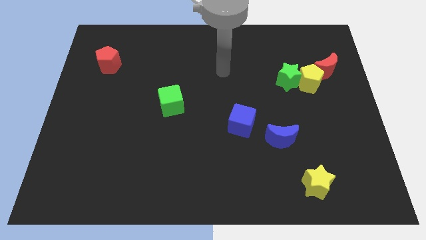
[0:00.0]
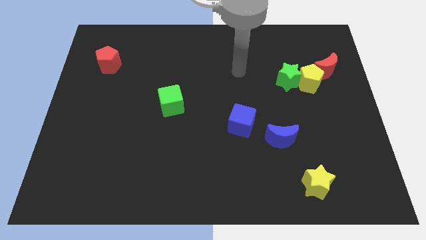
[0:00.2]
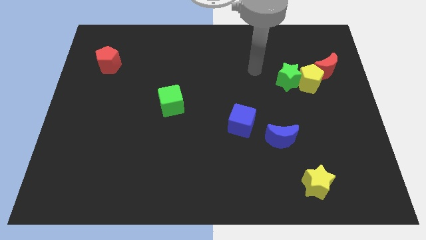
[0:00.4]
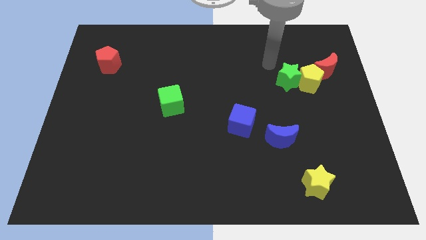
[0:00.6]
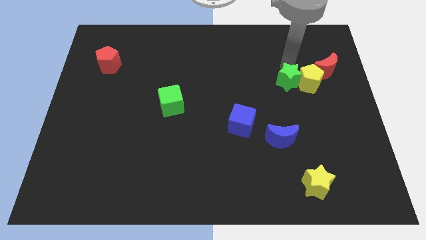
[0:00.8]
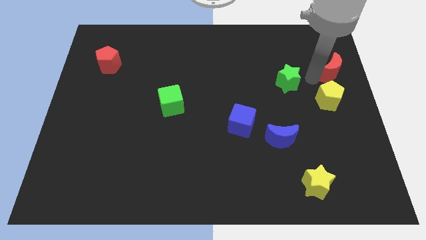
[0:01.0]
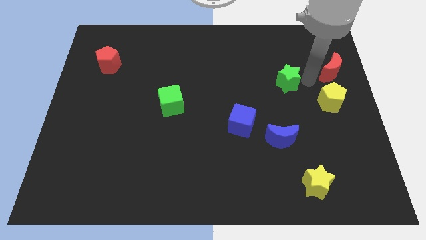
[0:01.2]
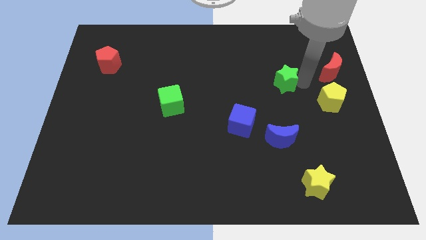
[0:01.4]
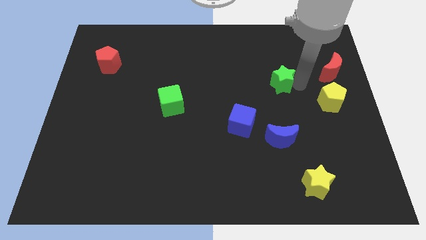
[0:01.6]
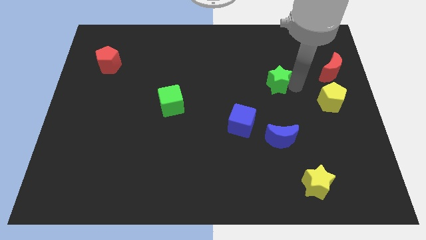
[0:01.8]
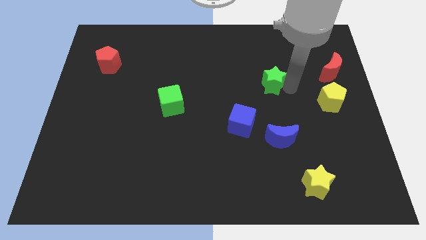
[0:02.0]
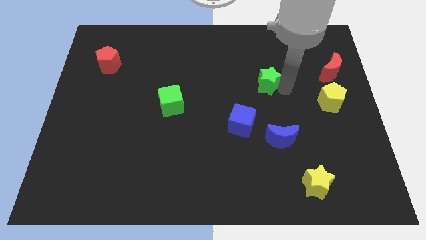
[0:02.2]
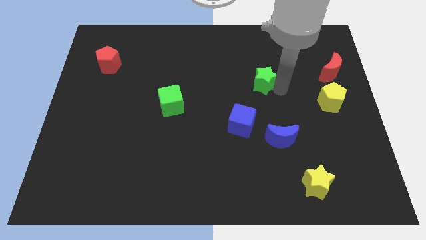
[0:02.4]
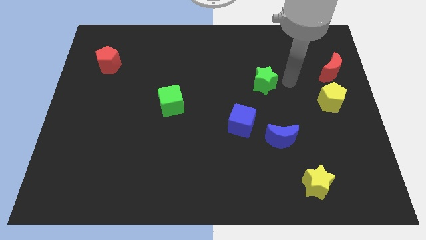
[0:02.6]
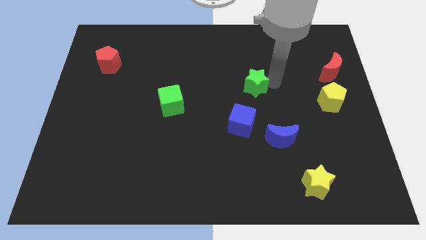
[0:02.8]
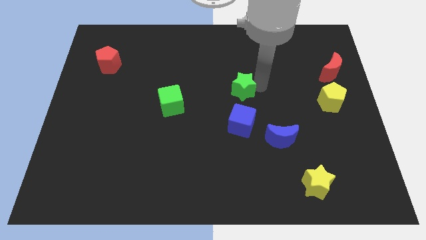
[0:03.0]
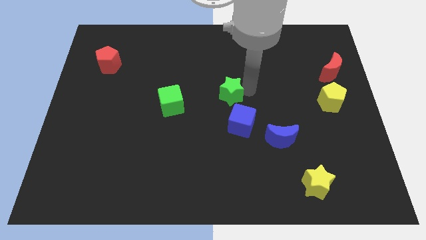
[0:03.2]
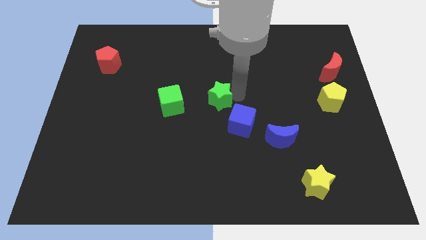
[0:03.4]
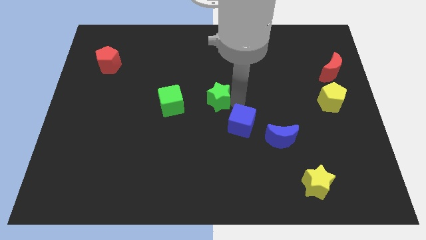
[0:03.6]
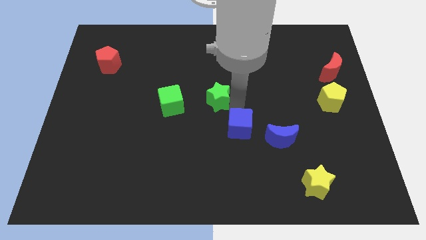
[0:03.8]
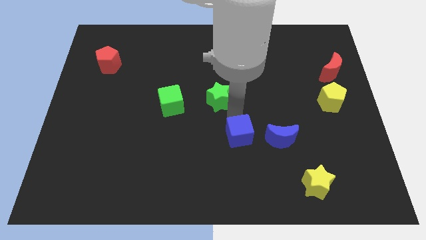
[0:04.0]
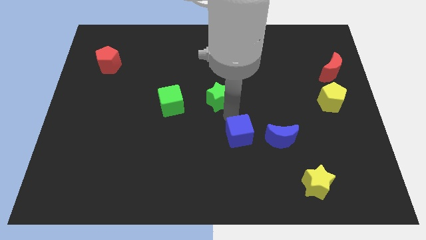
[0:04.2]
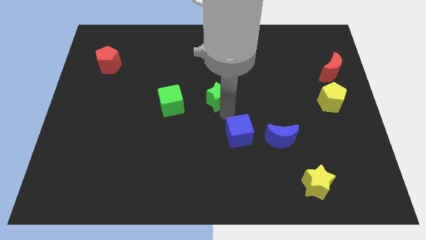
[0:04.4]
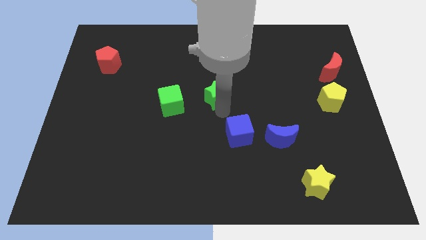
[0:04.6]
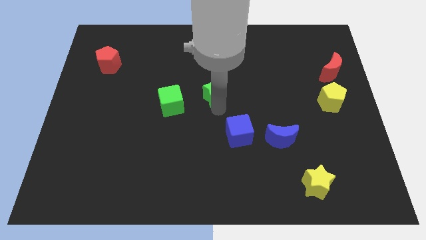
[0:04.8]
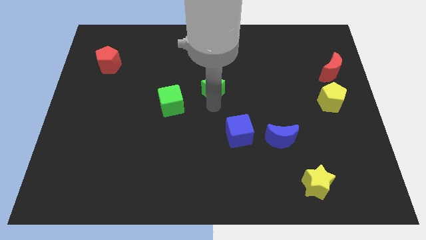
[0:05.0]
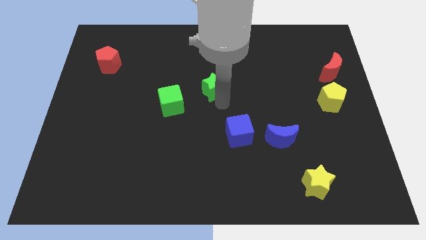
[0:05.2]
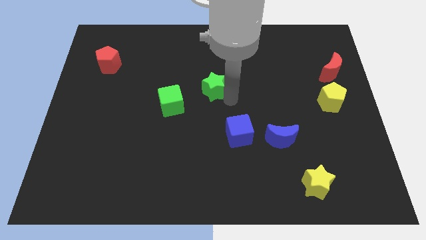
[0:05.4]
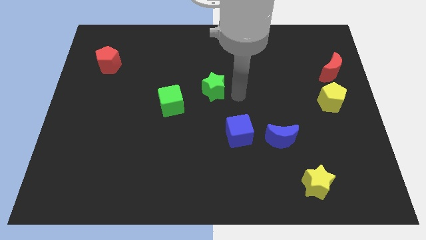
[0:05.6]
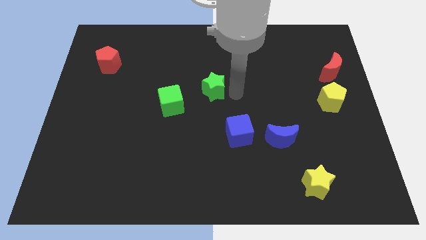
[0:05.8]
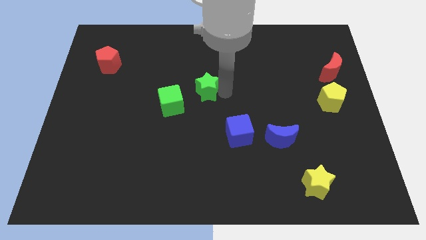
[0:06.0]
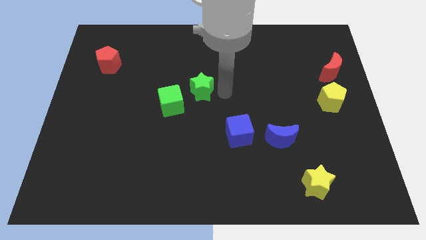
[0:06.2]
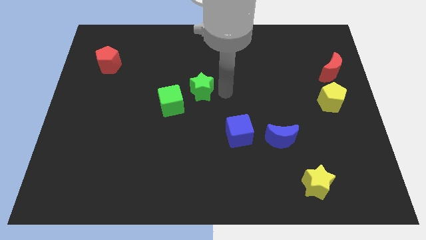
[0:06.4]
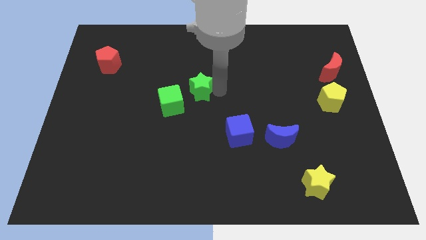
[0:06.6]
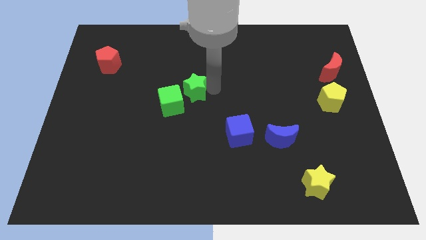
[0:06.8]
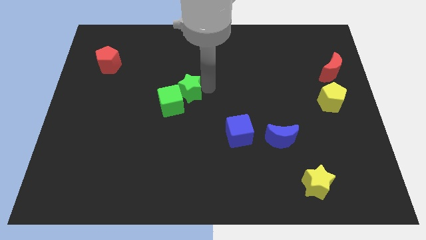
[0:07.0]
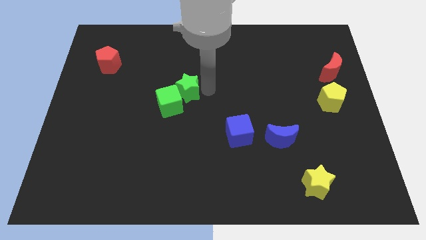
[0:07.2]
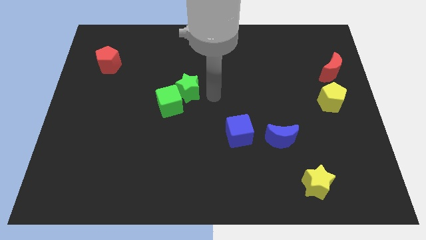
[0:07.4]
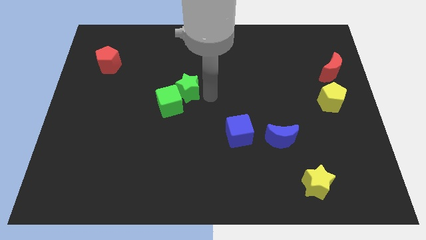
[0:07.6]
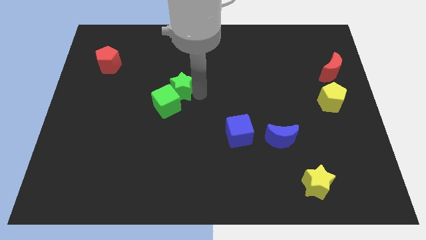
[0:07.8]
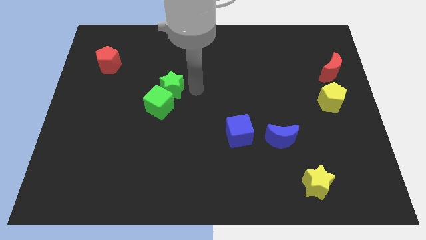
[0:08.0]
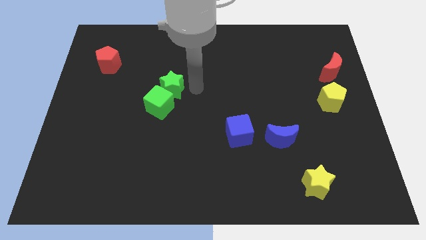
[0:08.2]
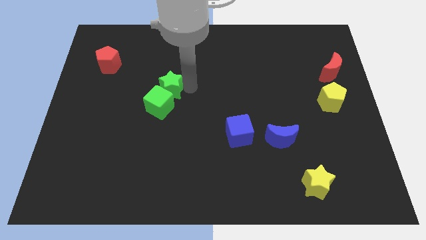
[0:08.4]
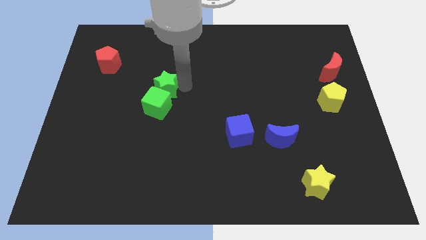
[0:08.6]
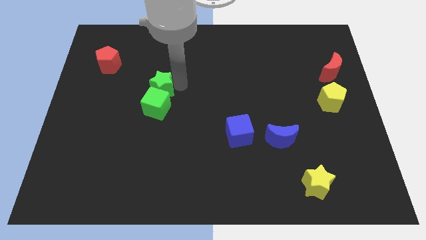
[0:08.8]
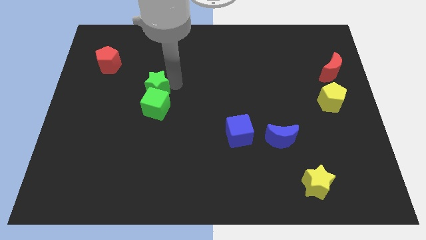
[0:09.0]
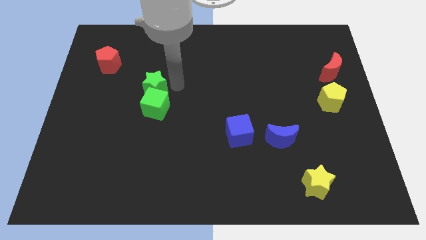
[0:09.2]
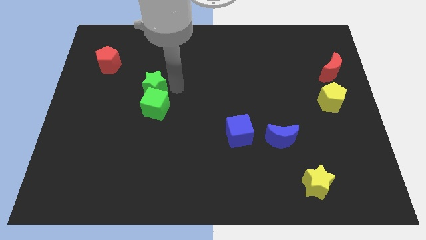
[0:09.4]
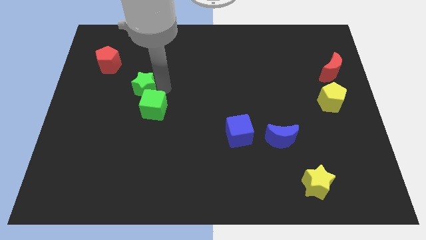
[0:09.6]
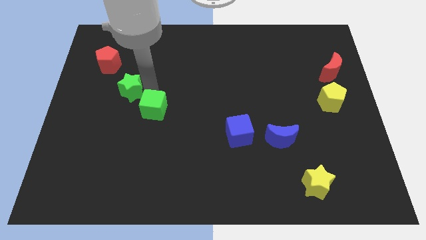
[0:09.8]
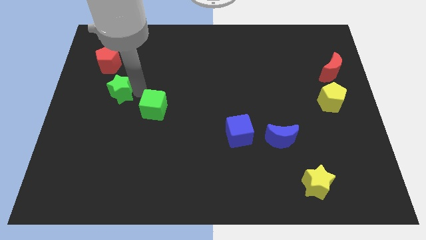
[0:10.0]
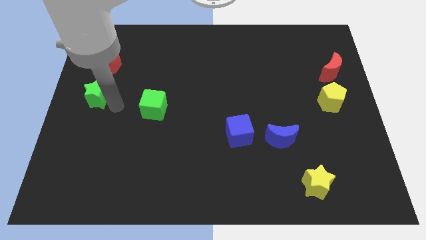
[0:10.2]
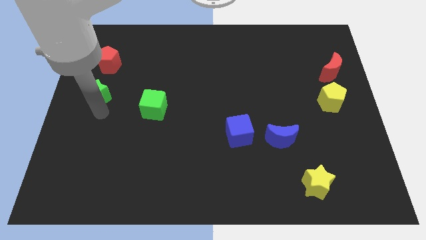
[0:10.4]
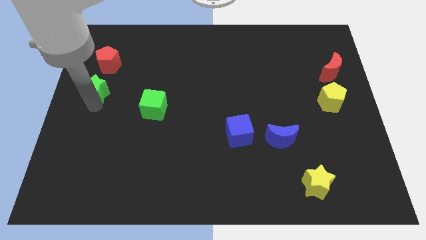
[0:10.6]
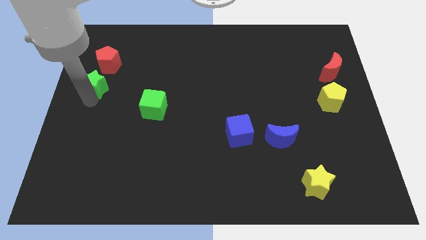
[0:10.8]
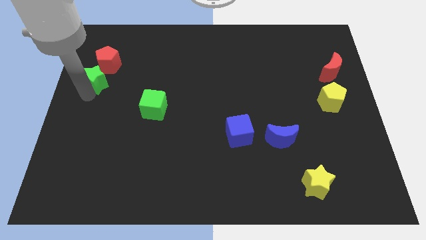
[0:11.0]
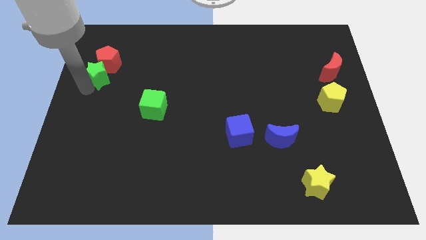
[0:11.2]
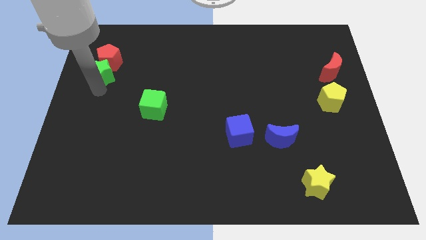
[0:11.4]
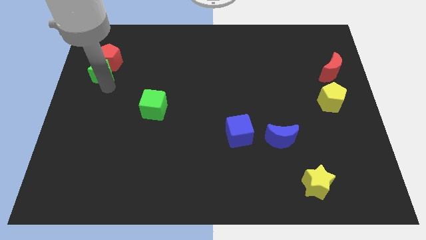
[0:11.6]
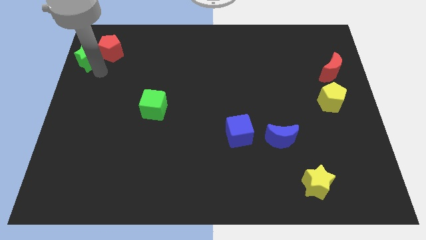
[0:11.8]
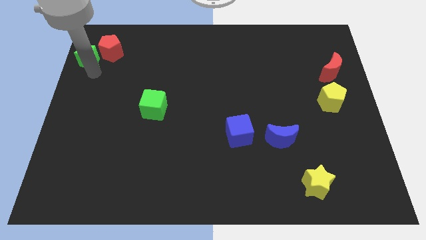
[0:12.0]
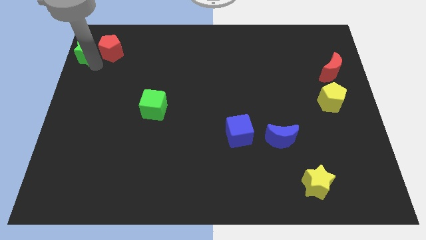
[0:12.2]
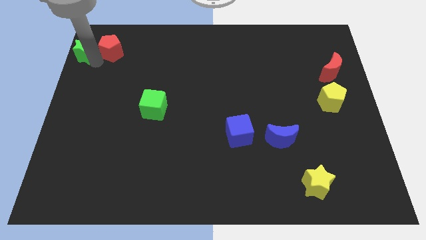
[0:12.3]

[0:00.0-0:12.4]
put the green star to the top left

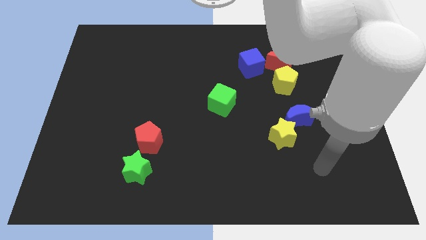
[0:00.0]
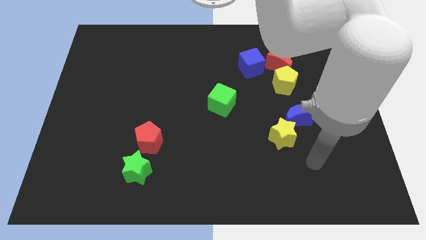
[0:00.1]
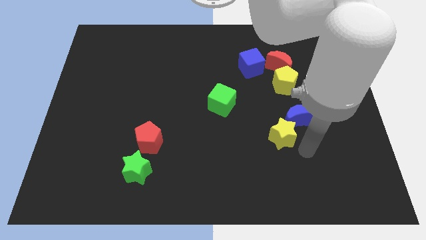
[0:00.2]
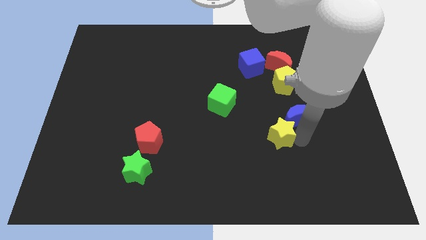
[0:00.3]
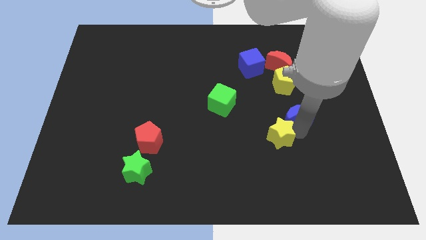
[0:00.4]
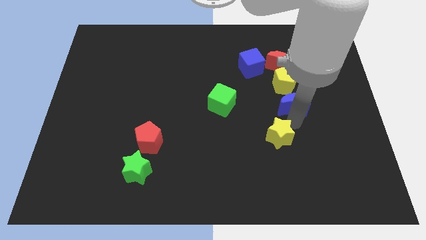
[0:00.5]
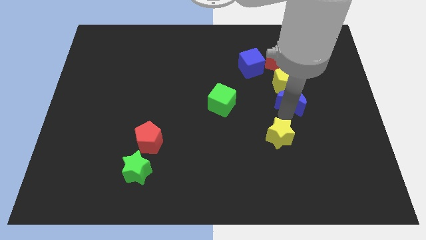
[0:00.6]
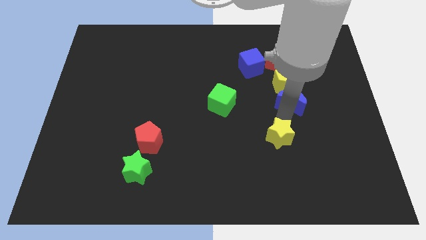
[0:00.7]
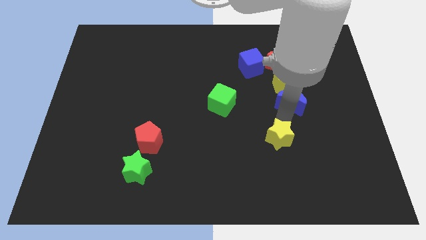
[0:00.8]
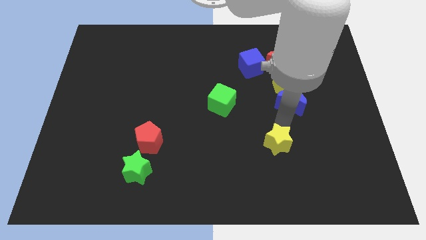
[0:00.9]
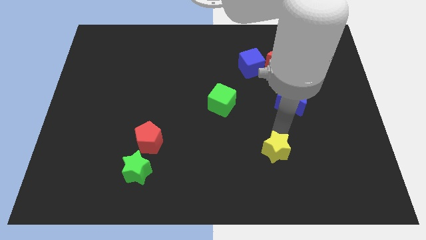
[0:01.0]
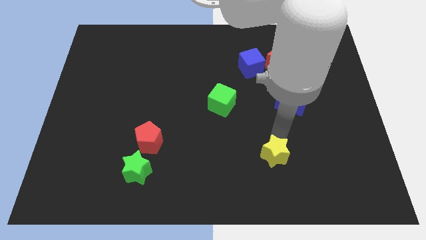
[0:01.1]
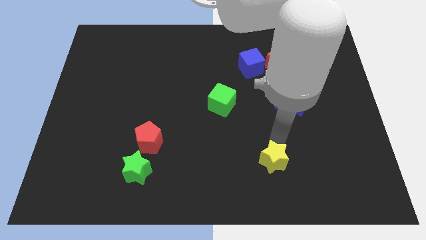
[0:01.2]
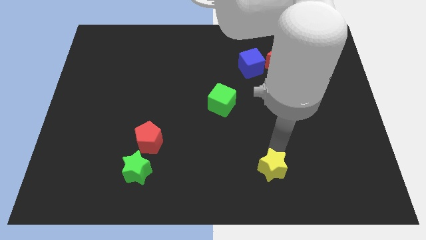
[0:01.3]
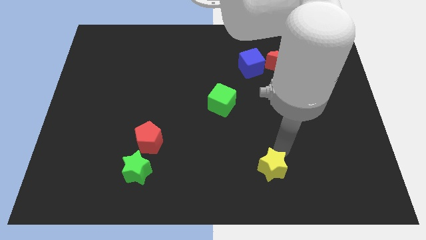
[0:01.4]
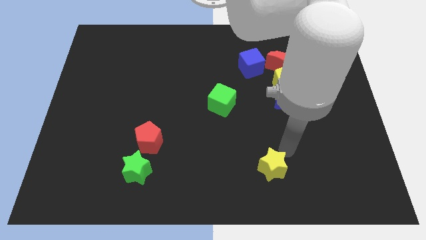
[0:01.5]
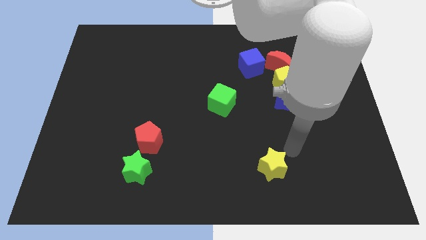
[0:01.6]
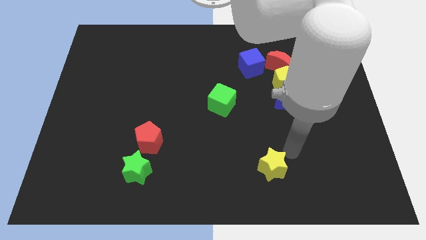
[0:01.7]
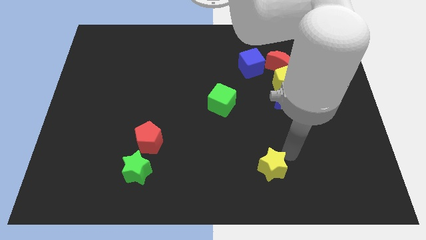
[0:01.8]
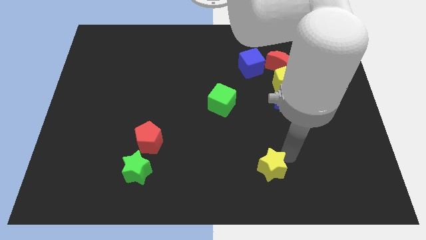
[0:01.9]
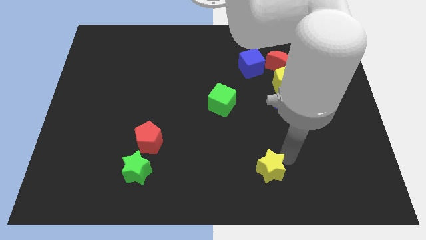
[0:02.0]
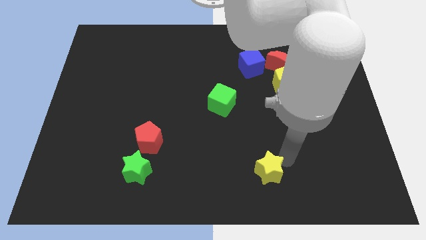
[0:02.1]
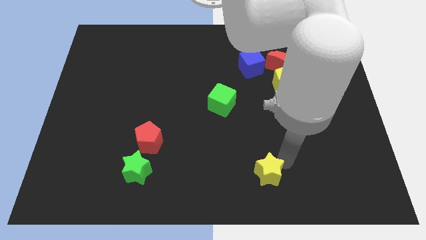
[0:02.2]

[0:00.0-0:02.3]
push the yellow star to the bottom side
